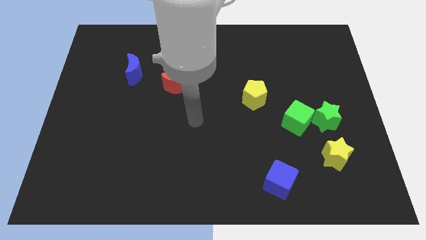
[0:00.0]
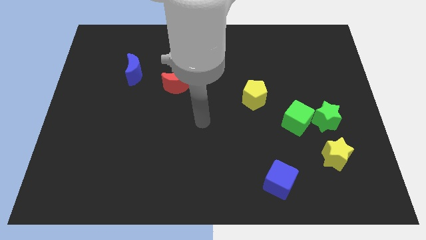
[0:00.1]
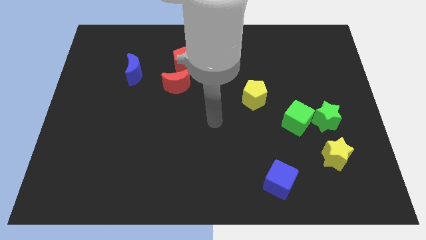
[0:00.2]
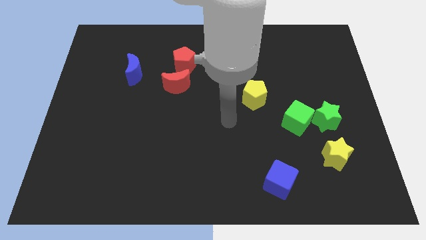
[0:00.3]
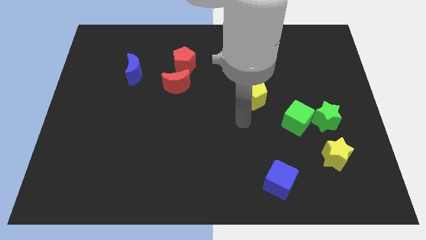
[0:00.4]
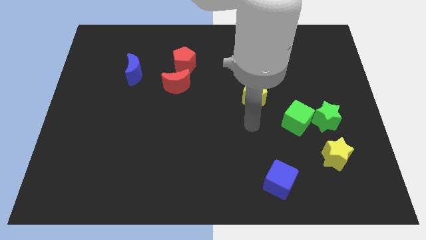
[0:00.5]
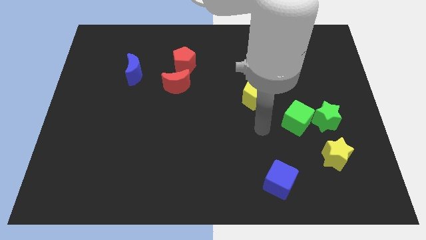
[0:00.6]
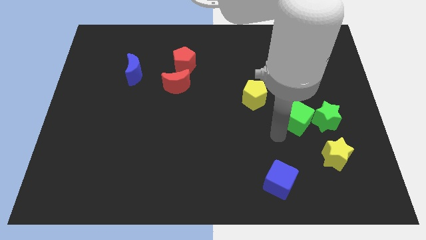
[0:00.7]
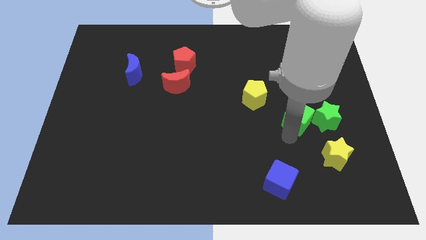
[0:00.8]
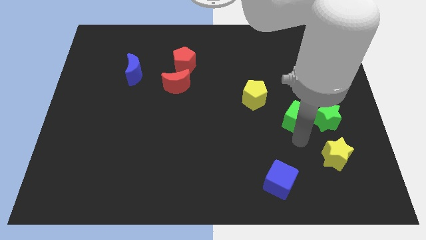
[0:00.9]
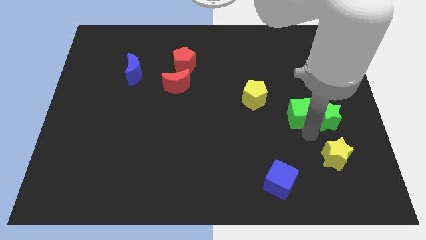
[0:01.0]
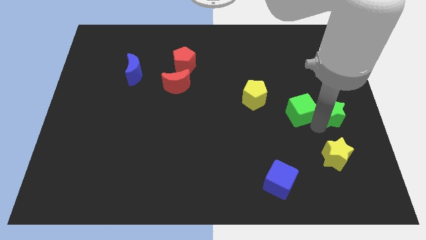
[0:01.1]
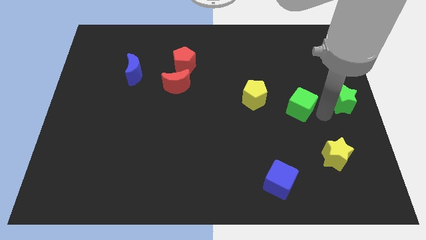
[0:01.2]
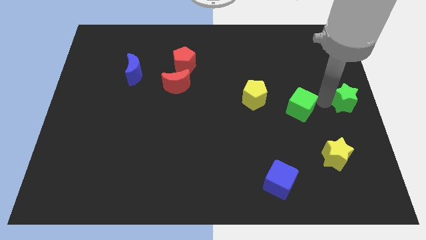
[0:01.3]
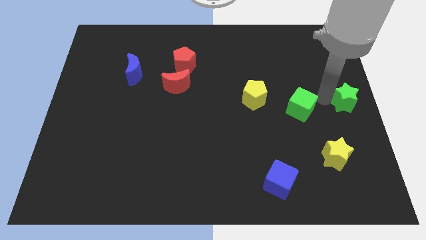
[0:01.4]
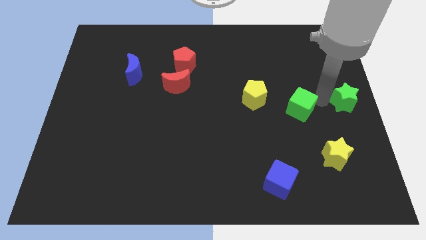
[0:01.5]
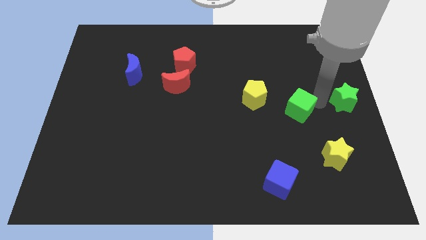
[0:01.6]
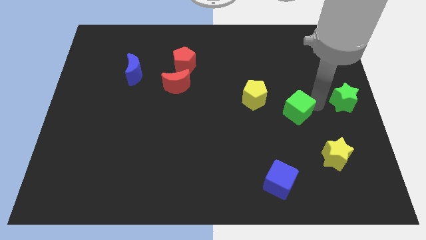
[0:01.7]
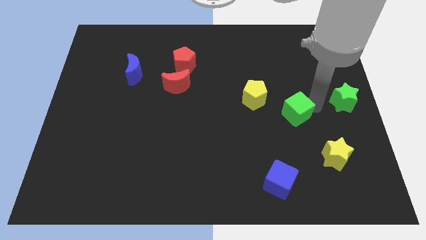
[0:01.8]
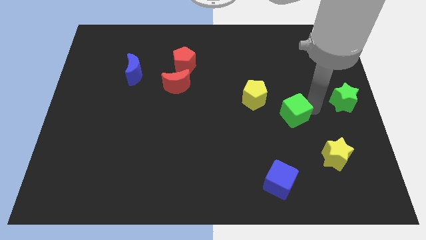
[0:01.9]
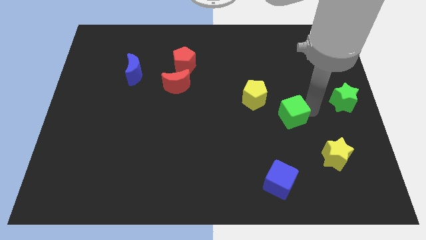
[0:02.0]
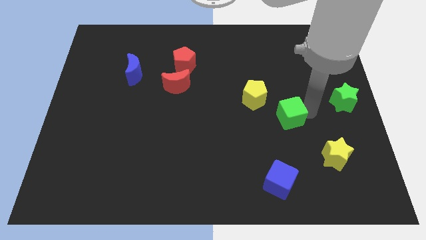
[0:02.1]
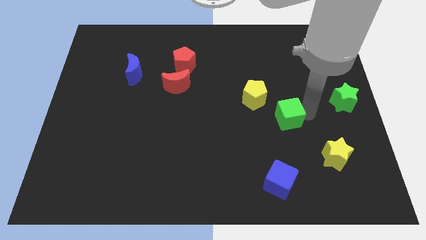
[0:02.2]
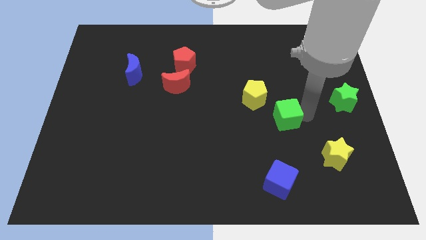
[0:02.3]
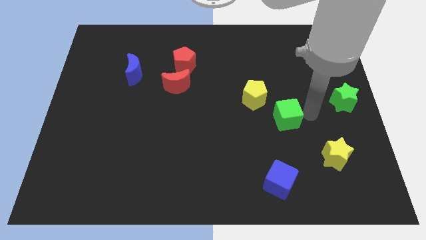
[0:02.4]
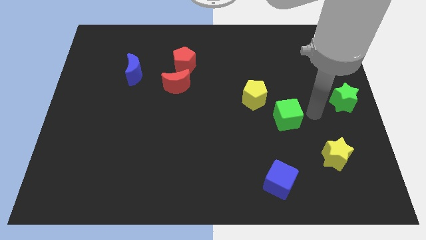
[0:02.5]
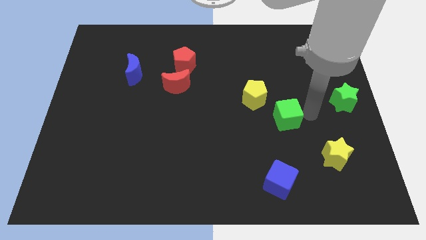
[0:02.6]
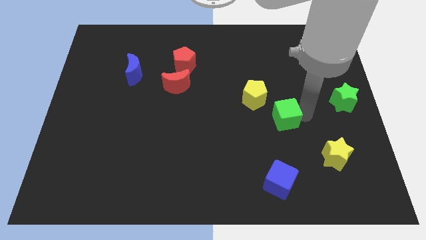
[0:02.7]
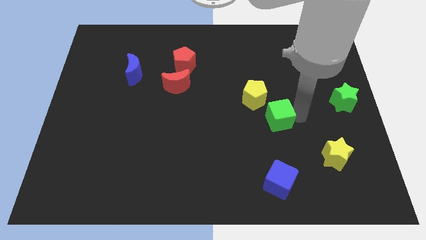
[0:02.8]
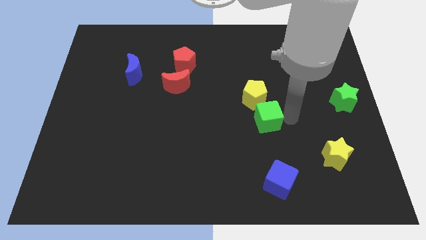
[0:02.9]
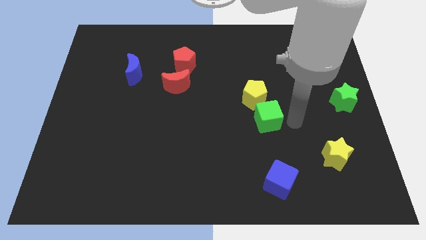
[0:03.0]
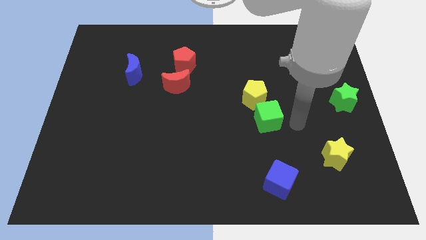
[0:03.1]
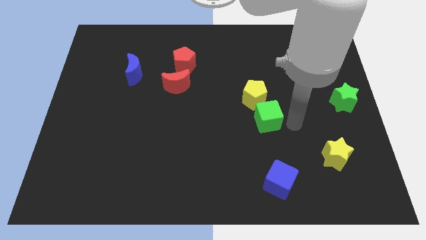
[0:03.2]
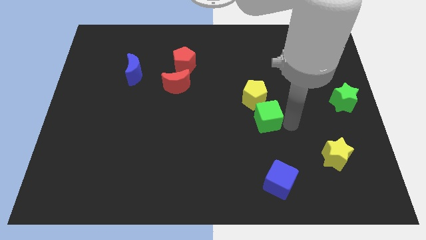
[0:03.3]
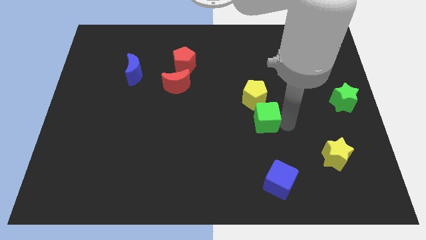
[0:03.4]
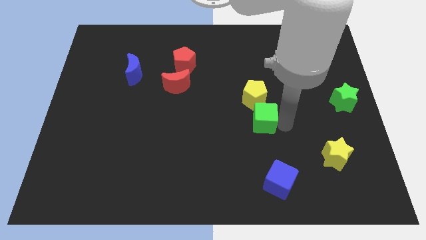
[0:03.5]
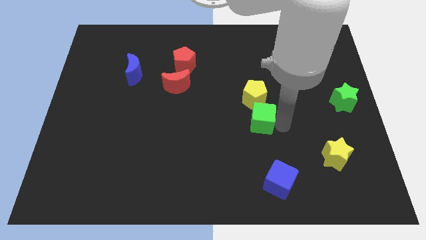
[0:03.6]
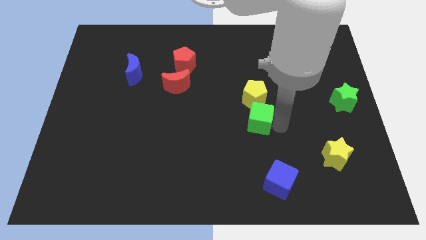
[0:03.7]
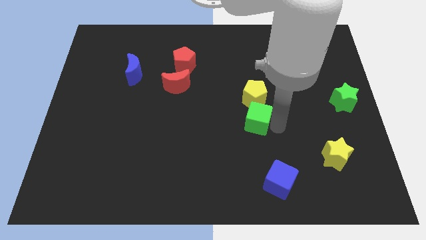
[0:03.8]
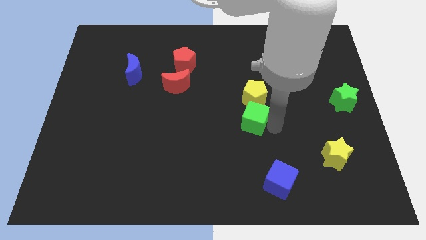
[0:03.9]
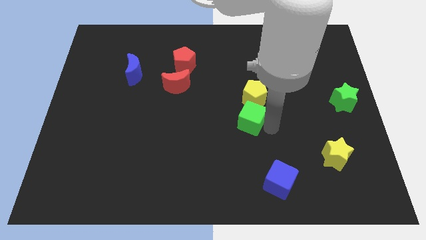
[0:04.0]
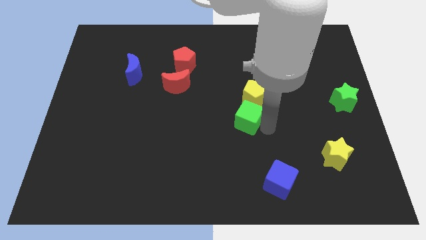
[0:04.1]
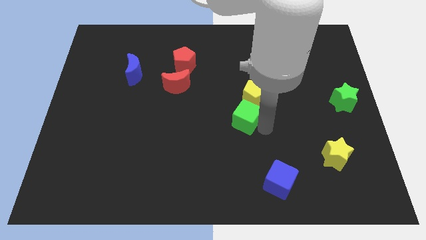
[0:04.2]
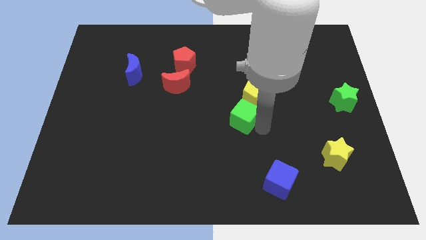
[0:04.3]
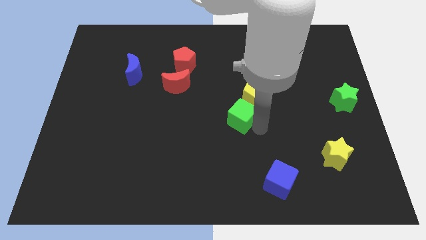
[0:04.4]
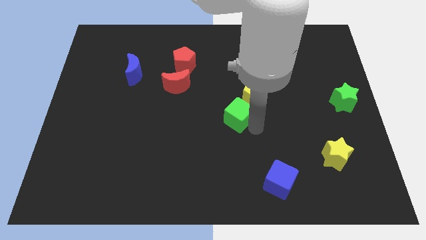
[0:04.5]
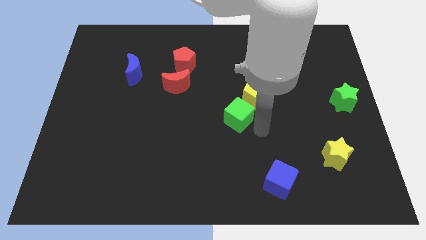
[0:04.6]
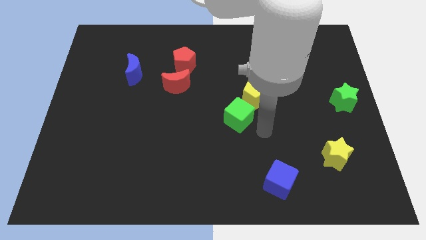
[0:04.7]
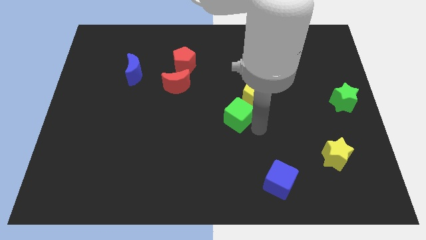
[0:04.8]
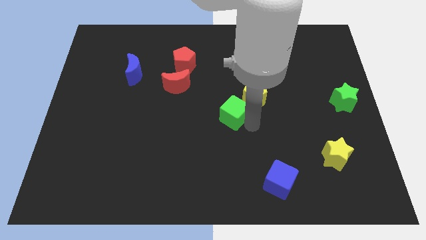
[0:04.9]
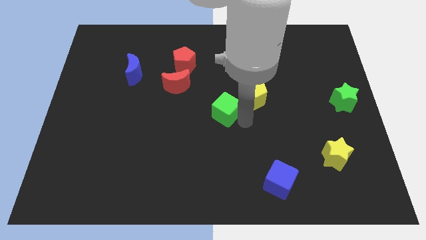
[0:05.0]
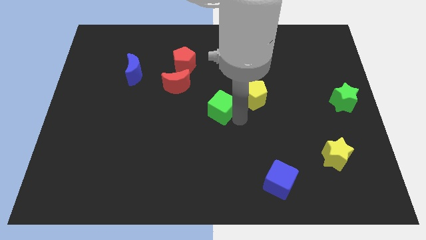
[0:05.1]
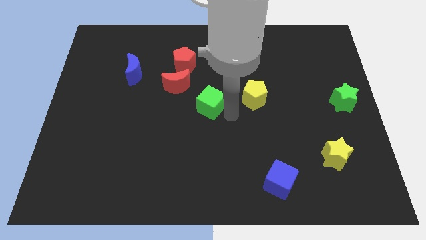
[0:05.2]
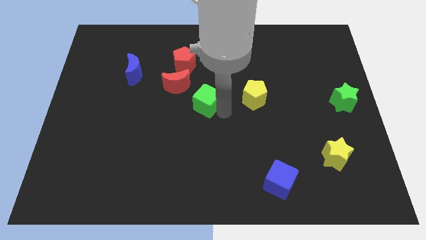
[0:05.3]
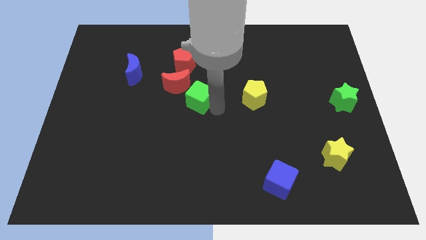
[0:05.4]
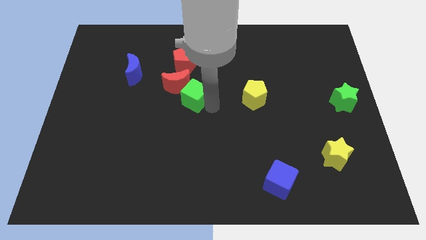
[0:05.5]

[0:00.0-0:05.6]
put the green cube close to the red moon

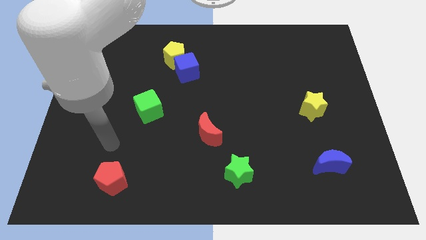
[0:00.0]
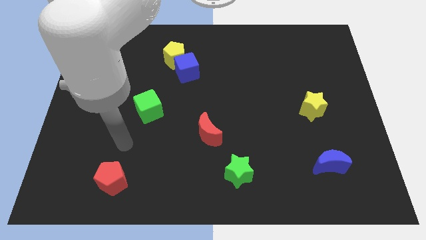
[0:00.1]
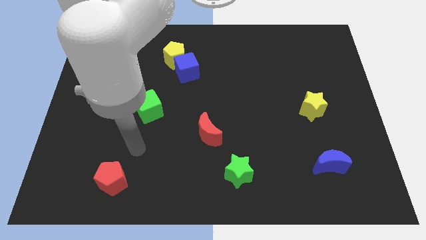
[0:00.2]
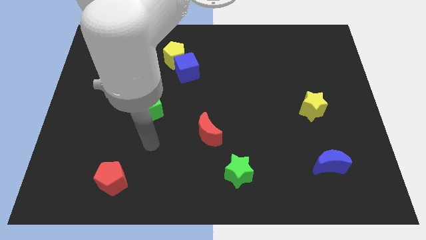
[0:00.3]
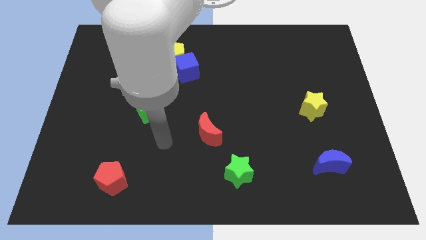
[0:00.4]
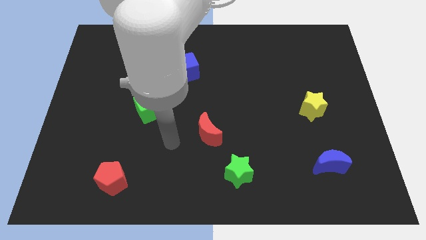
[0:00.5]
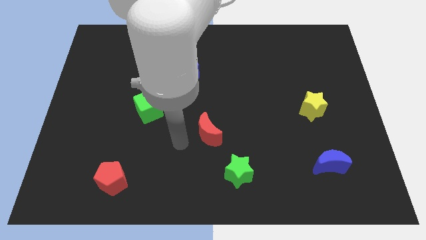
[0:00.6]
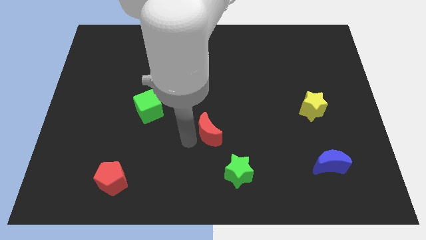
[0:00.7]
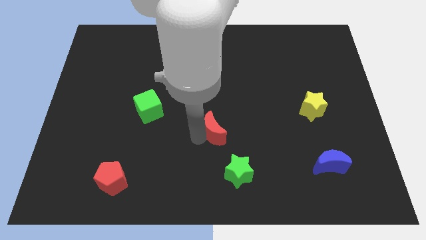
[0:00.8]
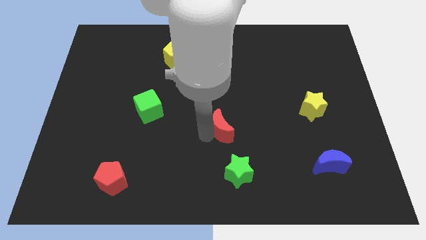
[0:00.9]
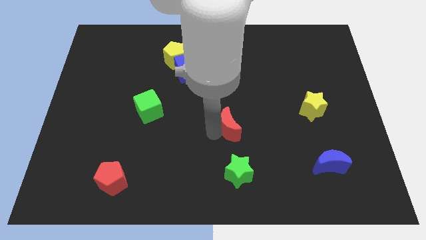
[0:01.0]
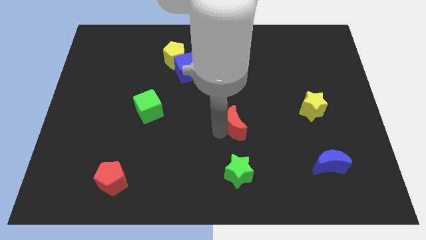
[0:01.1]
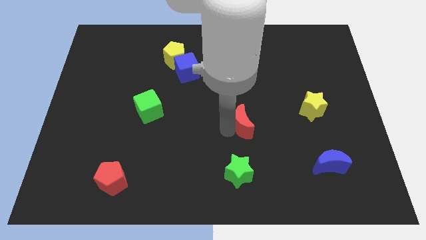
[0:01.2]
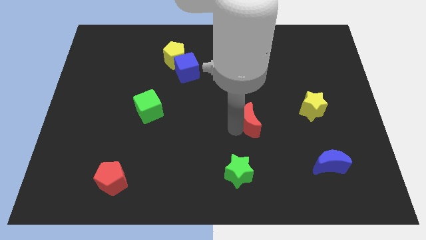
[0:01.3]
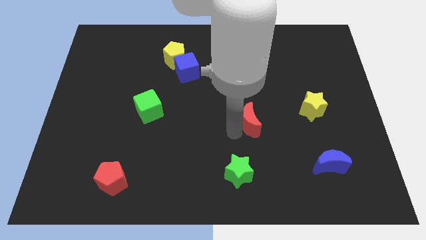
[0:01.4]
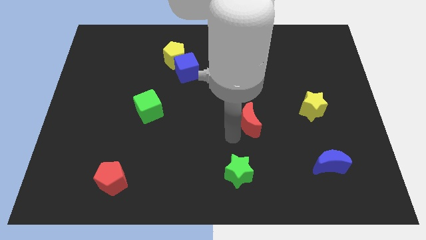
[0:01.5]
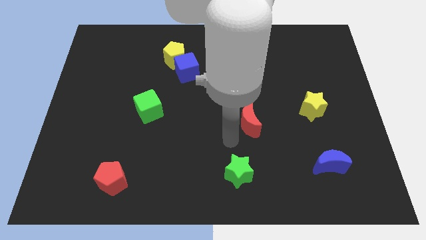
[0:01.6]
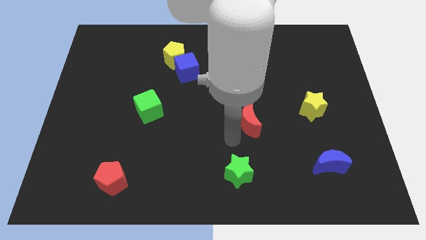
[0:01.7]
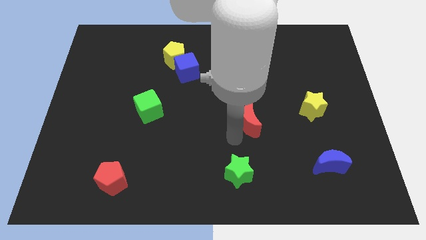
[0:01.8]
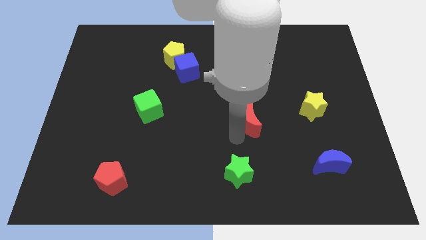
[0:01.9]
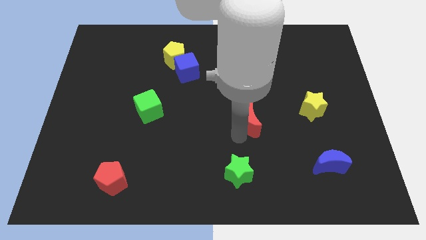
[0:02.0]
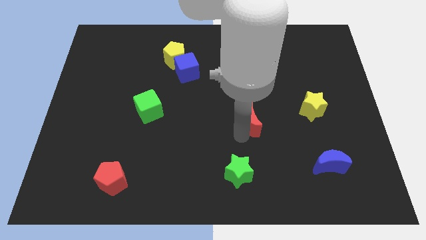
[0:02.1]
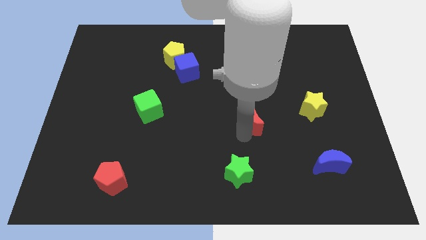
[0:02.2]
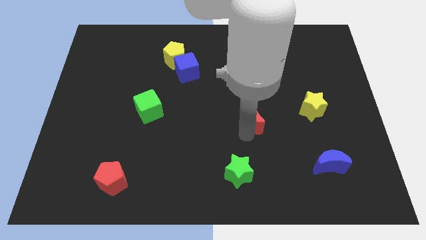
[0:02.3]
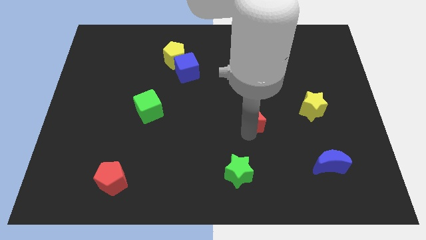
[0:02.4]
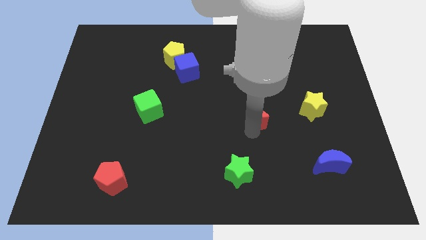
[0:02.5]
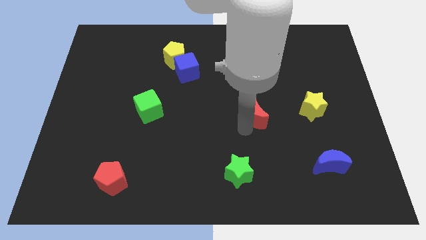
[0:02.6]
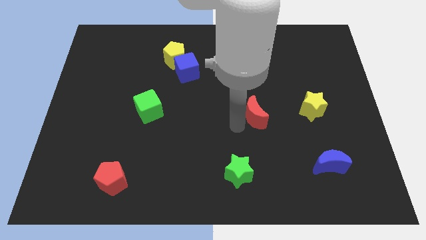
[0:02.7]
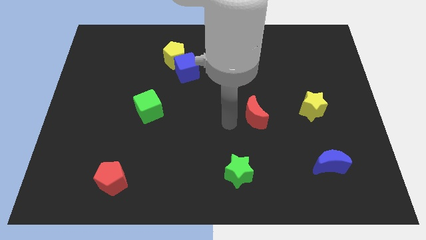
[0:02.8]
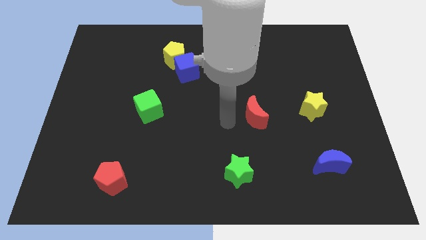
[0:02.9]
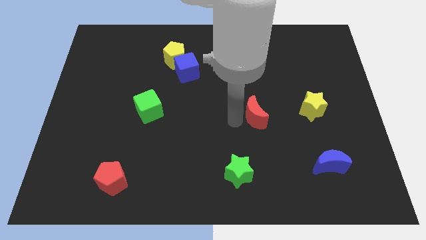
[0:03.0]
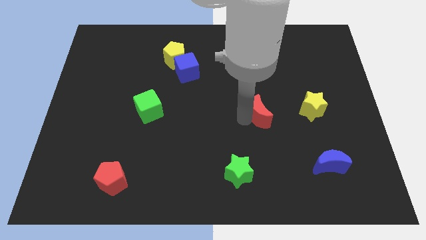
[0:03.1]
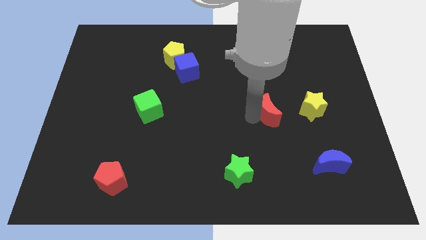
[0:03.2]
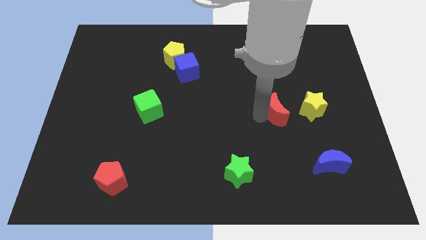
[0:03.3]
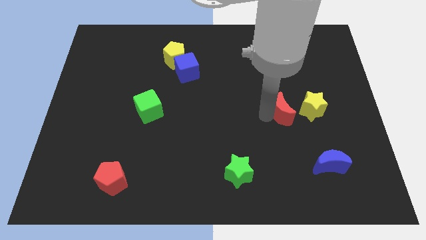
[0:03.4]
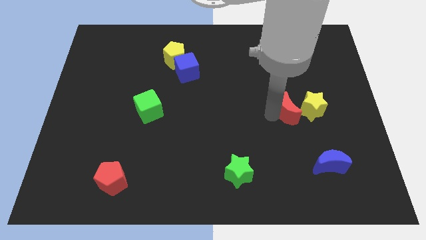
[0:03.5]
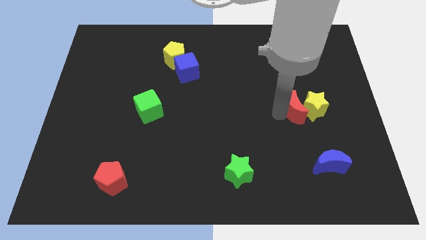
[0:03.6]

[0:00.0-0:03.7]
move the red moon to the yellow star
